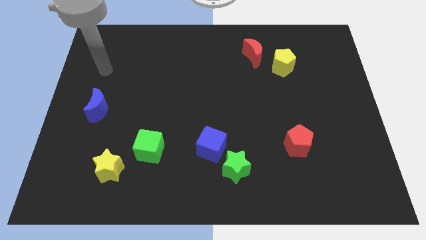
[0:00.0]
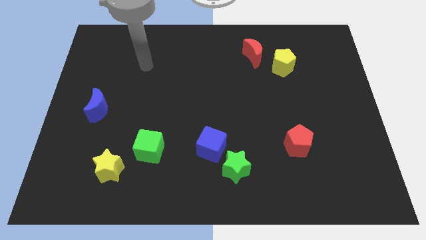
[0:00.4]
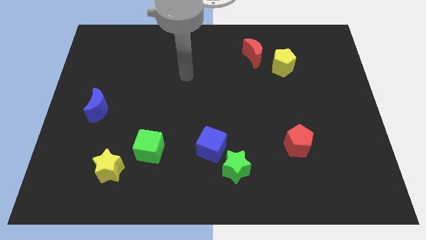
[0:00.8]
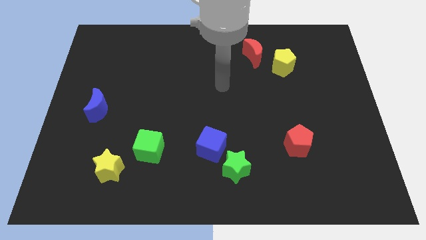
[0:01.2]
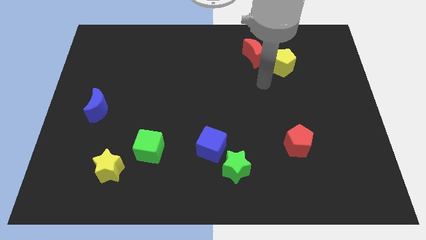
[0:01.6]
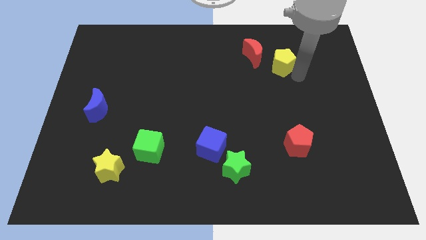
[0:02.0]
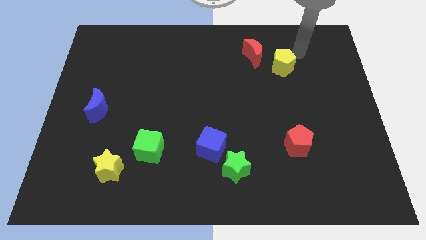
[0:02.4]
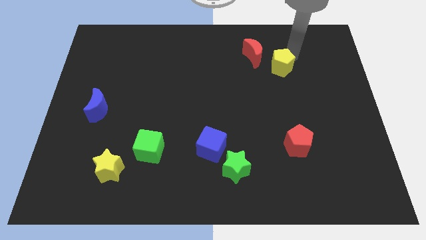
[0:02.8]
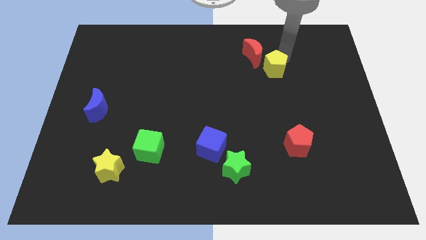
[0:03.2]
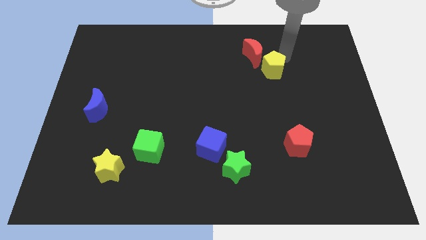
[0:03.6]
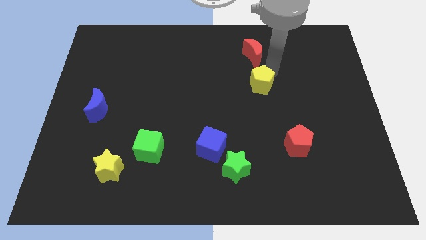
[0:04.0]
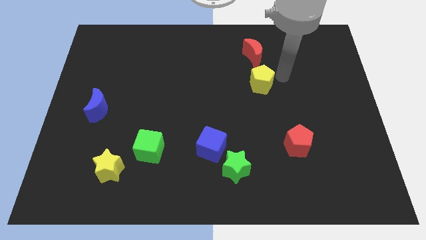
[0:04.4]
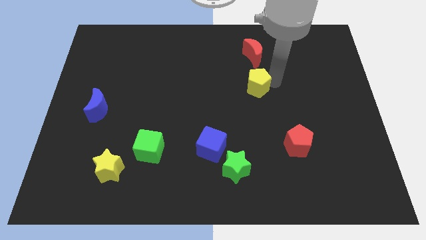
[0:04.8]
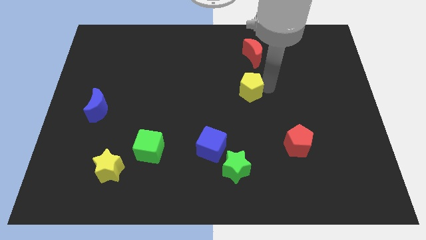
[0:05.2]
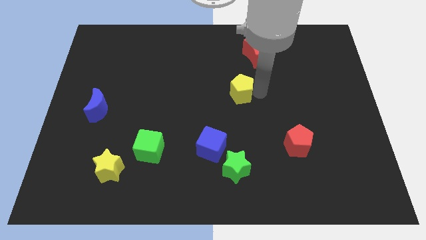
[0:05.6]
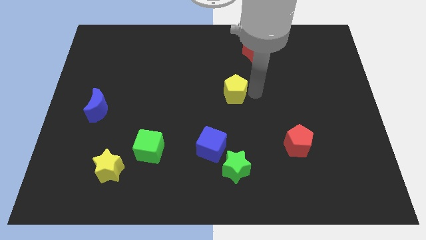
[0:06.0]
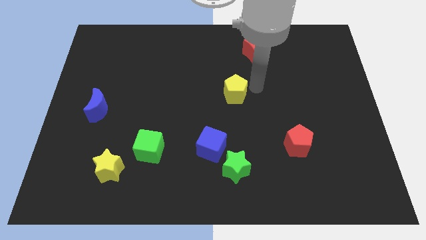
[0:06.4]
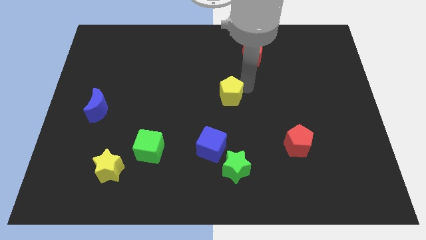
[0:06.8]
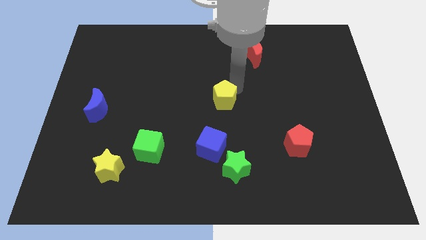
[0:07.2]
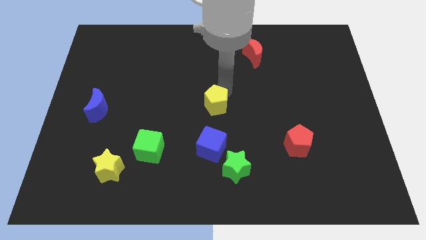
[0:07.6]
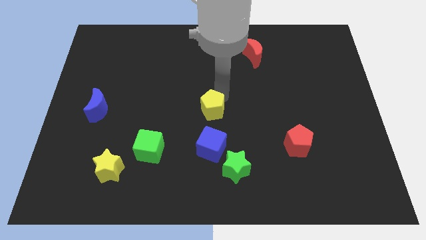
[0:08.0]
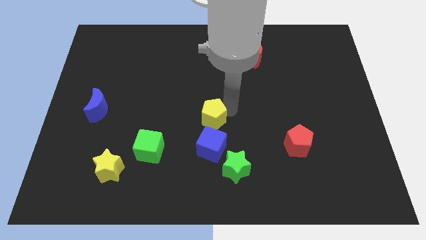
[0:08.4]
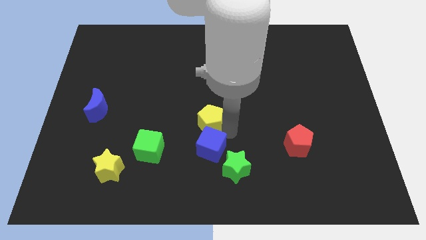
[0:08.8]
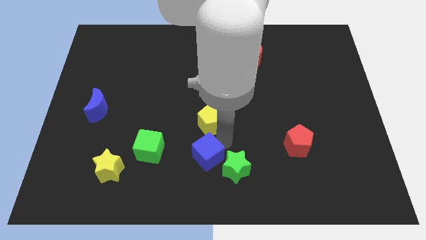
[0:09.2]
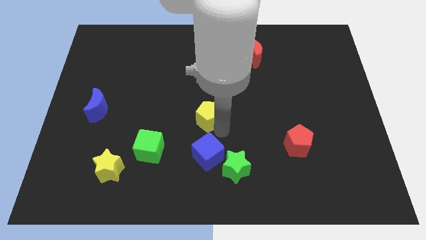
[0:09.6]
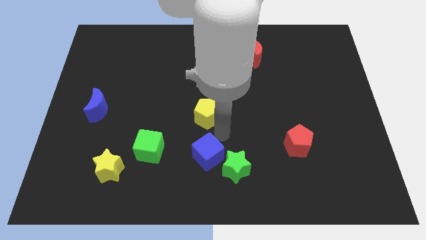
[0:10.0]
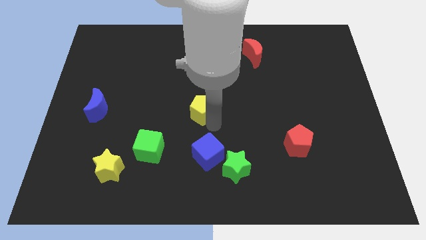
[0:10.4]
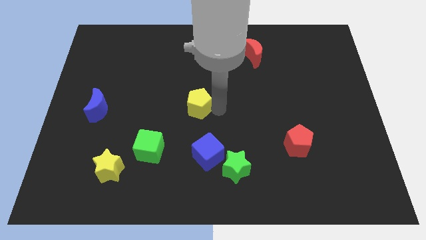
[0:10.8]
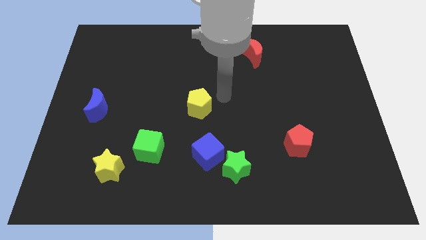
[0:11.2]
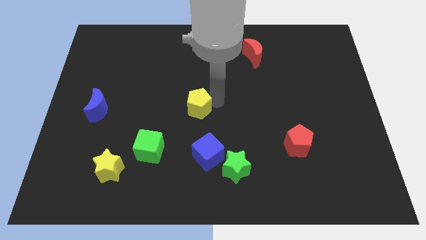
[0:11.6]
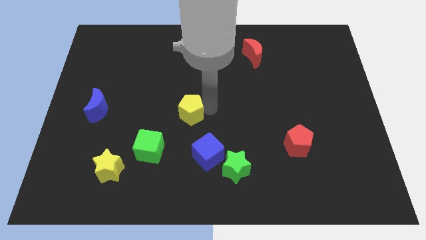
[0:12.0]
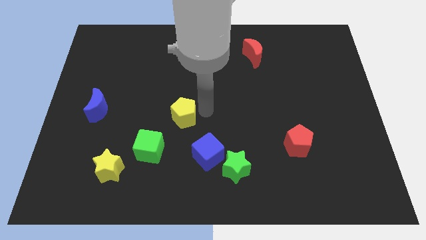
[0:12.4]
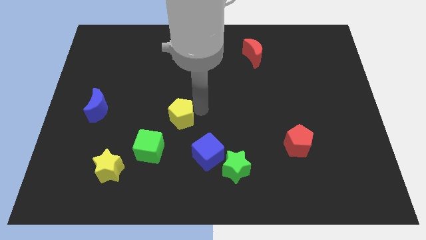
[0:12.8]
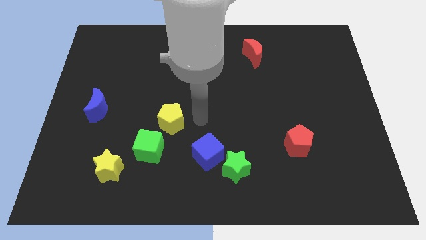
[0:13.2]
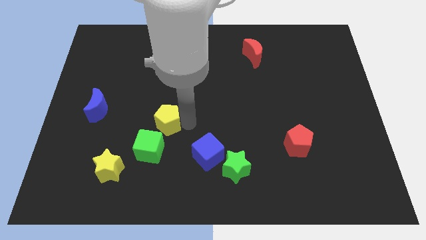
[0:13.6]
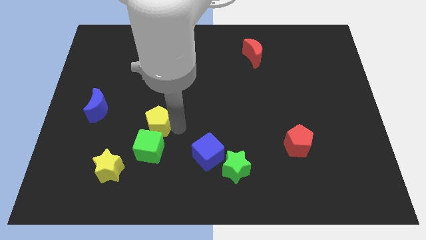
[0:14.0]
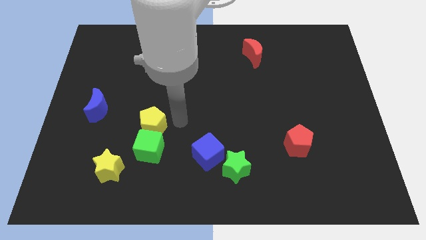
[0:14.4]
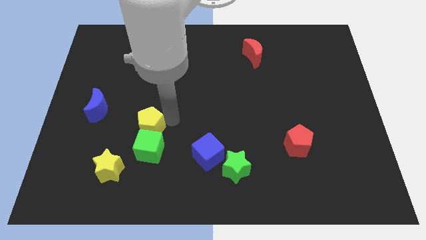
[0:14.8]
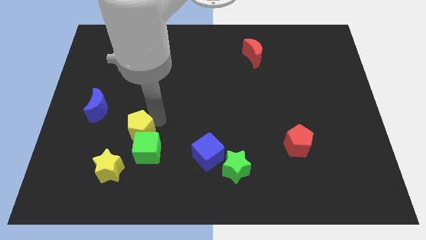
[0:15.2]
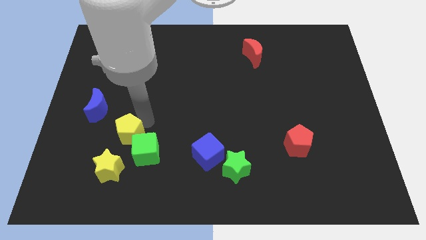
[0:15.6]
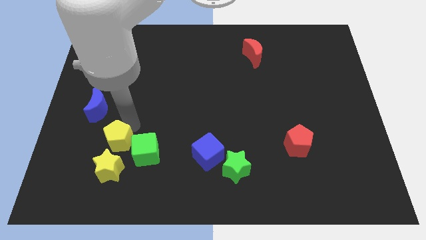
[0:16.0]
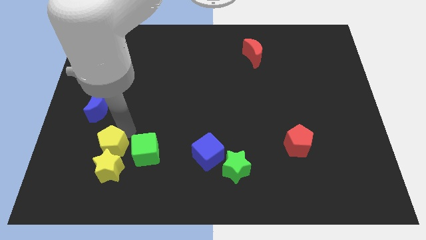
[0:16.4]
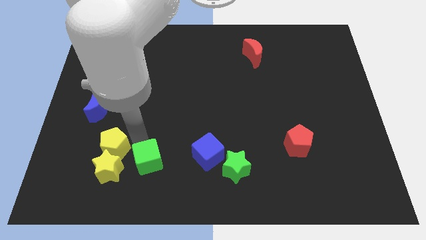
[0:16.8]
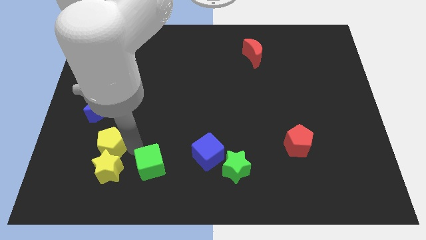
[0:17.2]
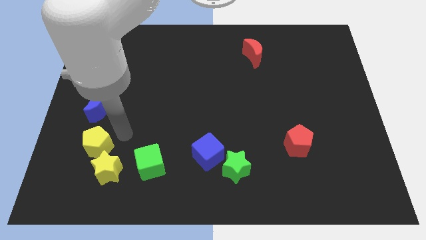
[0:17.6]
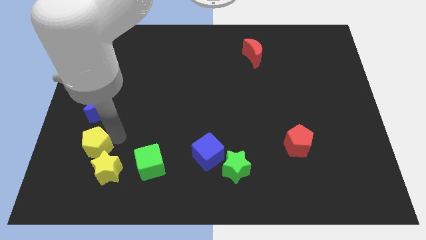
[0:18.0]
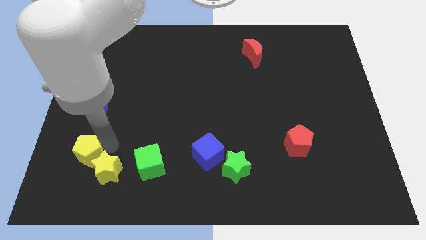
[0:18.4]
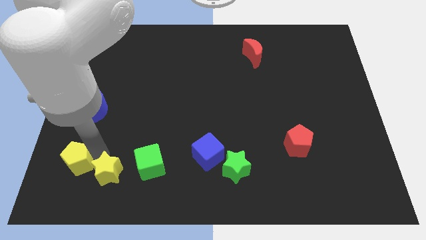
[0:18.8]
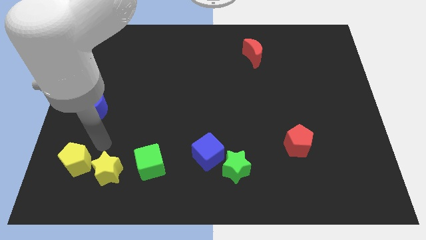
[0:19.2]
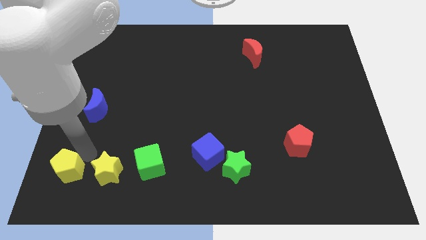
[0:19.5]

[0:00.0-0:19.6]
move the yellow pentagon to the bottom left corner

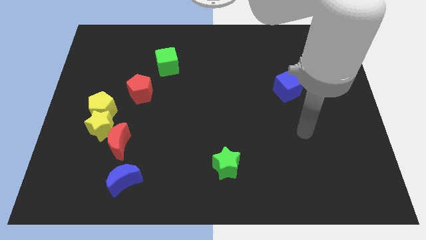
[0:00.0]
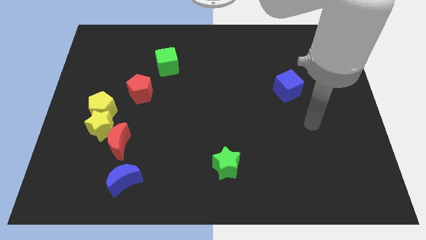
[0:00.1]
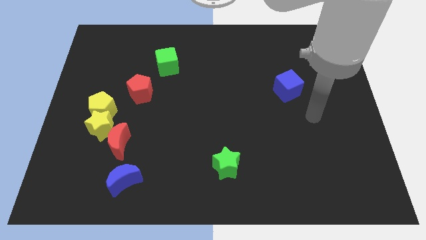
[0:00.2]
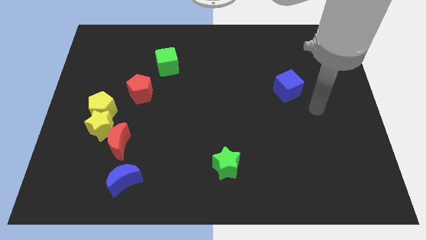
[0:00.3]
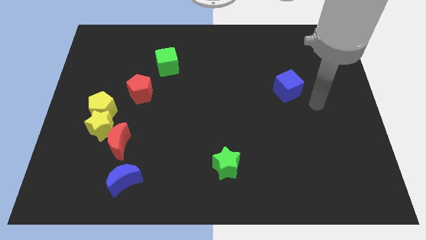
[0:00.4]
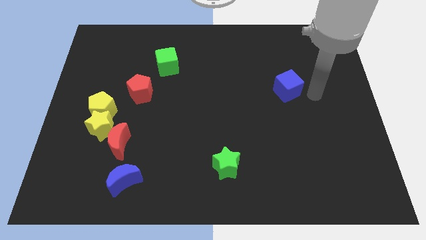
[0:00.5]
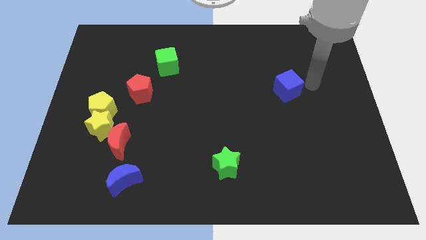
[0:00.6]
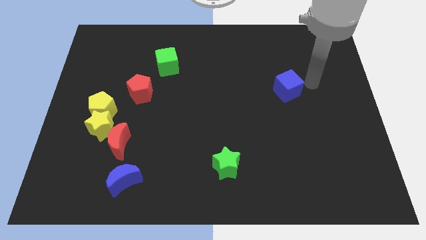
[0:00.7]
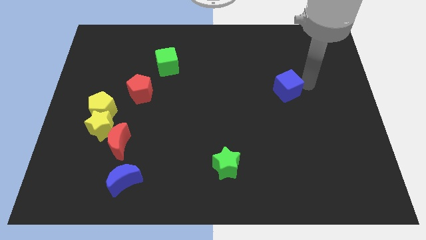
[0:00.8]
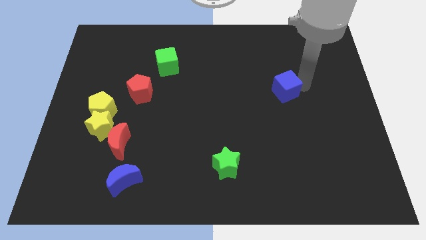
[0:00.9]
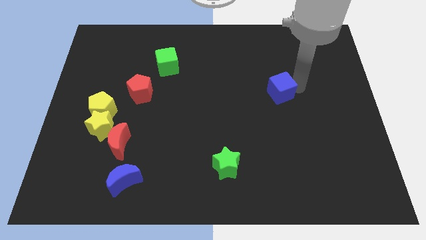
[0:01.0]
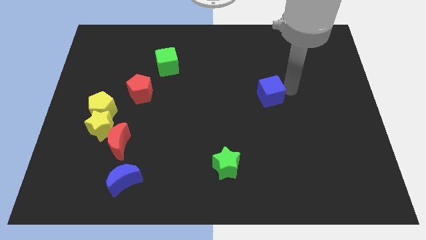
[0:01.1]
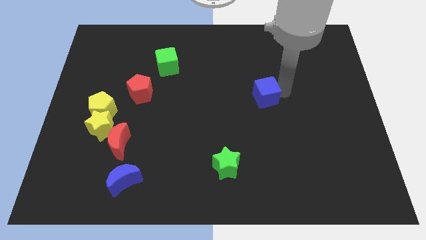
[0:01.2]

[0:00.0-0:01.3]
put the blue cube to the center

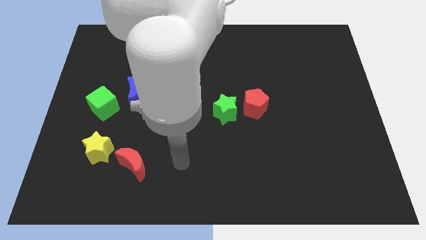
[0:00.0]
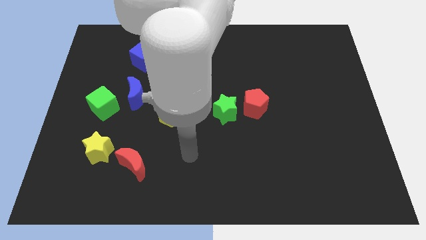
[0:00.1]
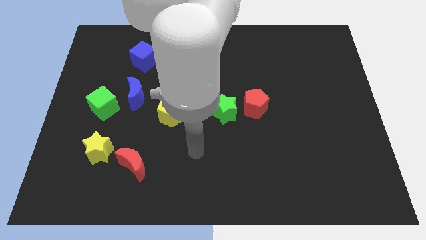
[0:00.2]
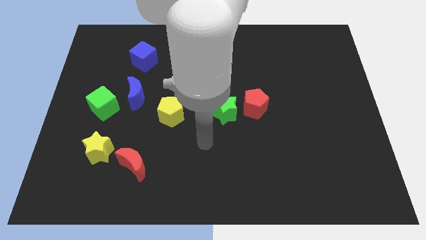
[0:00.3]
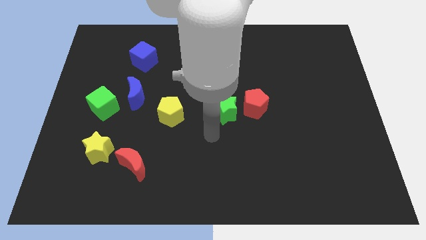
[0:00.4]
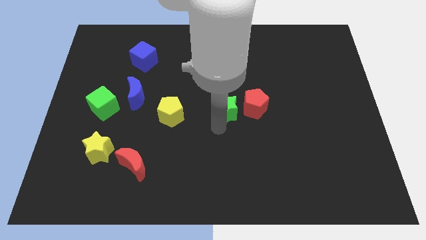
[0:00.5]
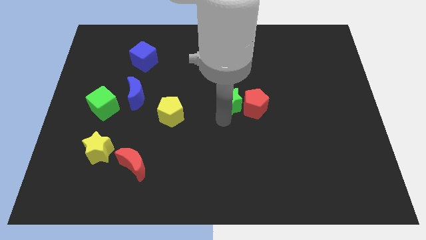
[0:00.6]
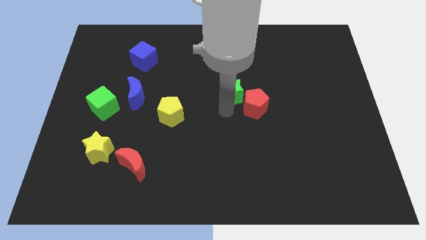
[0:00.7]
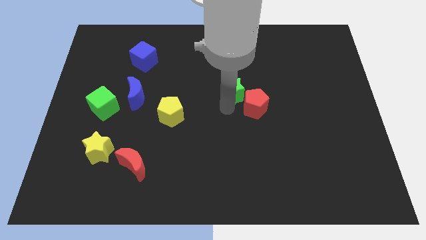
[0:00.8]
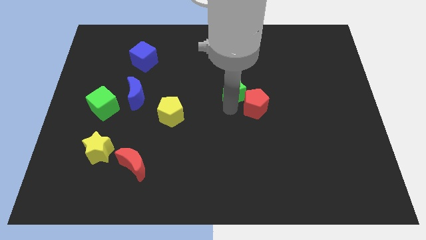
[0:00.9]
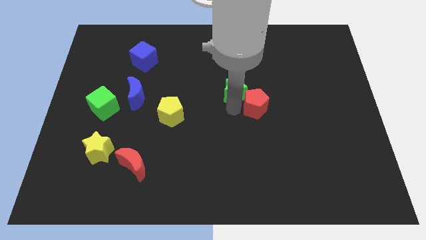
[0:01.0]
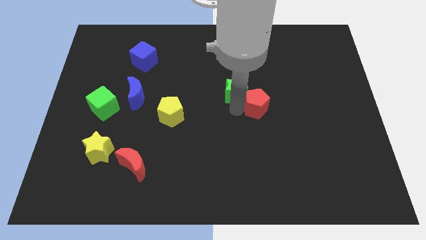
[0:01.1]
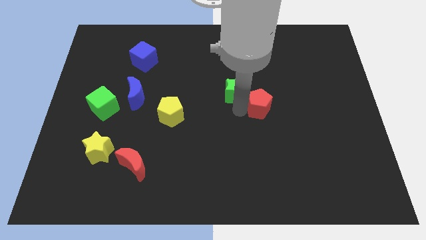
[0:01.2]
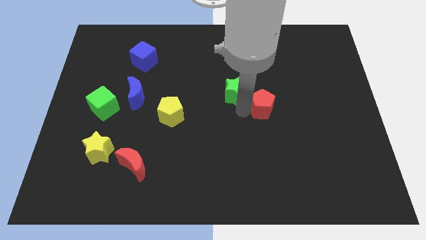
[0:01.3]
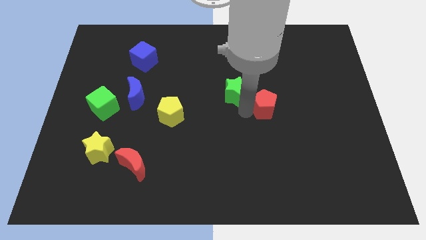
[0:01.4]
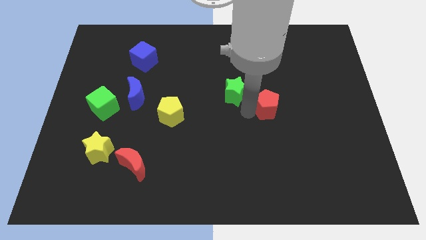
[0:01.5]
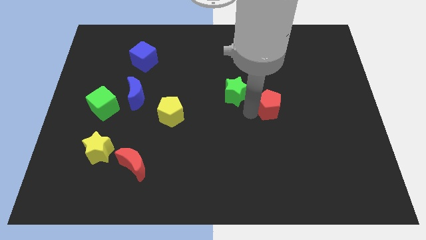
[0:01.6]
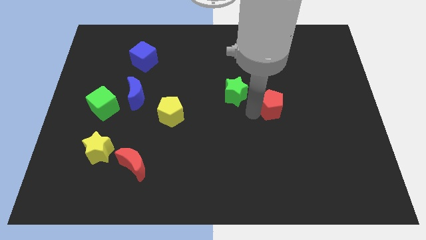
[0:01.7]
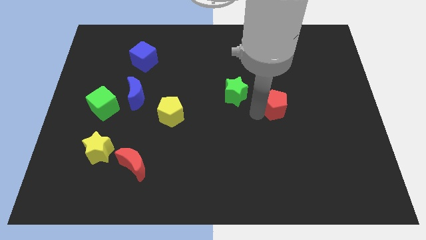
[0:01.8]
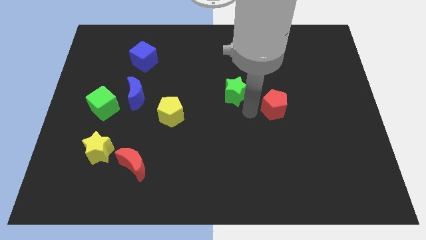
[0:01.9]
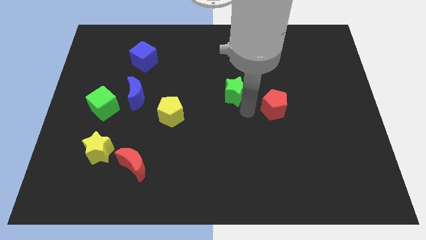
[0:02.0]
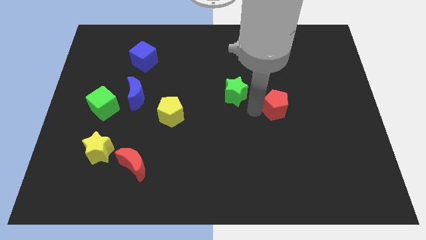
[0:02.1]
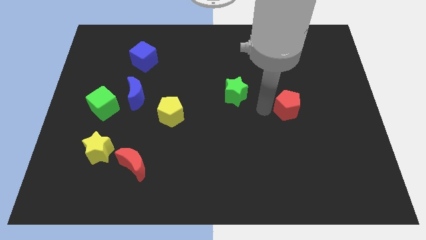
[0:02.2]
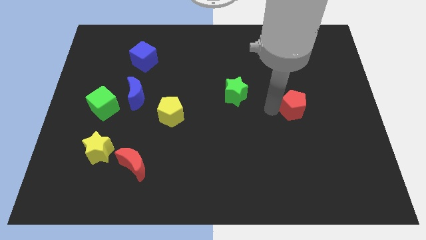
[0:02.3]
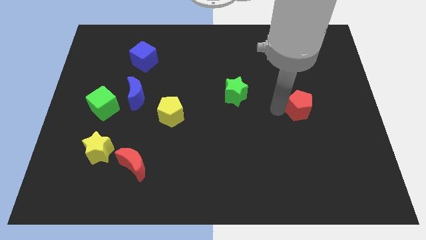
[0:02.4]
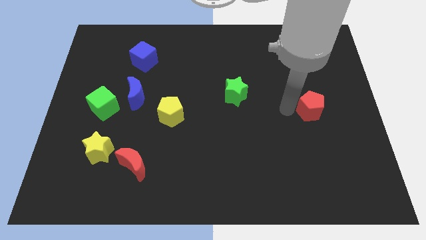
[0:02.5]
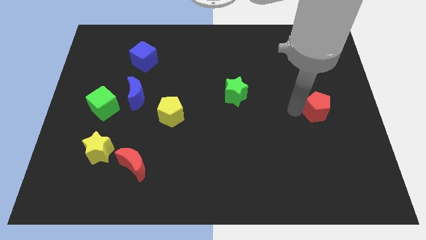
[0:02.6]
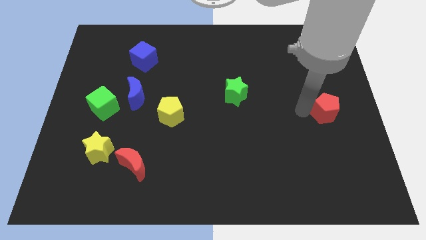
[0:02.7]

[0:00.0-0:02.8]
slide the red pentagon to the center right
